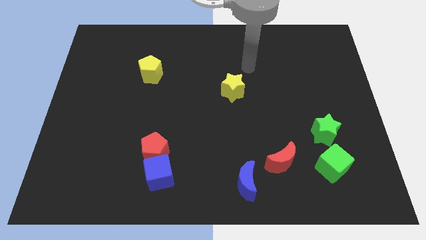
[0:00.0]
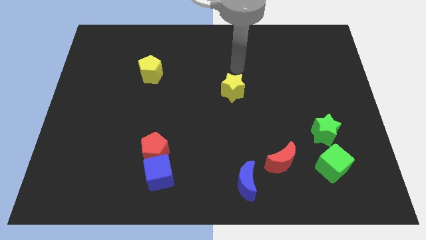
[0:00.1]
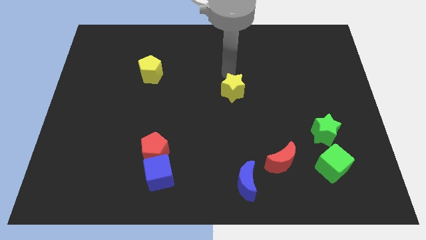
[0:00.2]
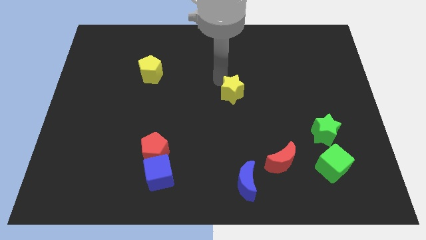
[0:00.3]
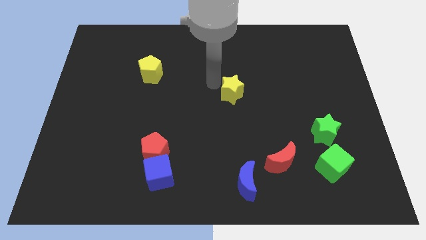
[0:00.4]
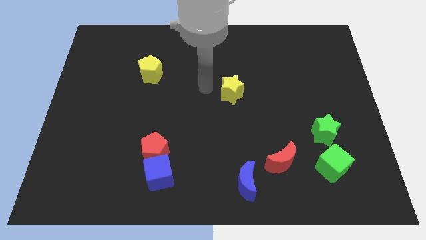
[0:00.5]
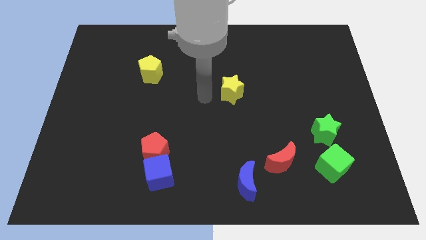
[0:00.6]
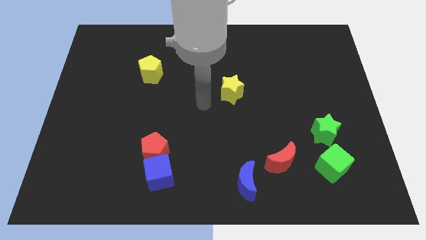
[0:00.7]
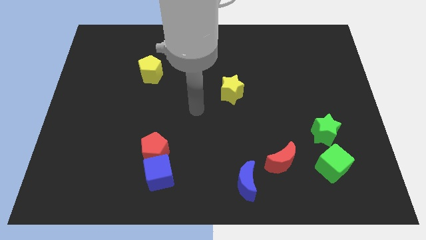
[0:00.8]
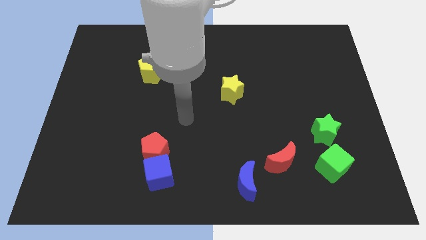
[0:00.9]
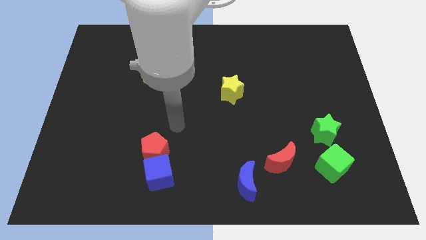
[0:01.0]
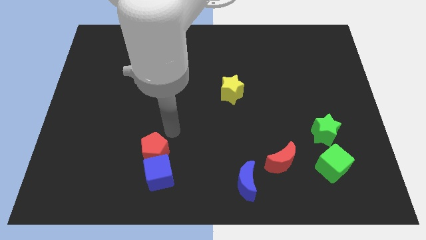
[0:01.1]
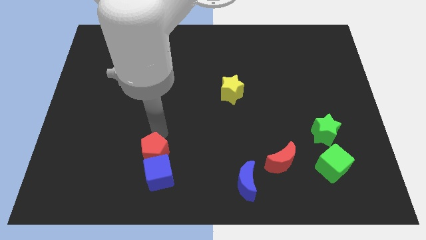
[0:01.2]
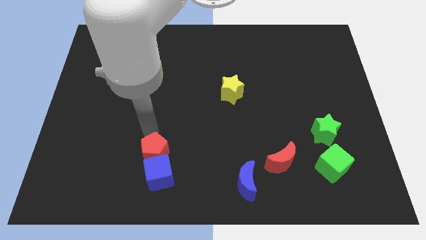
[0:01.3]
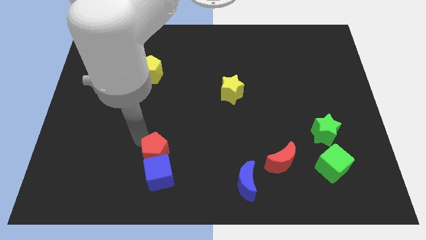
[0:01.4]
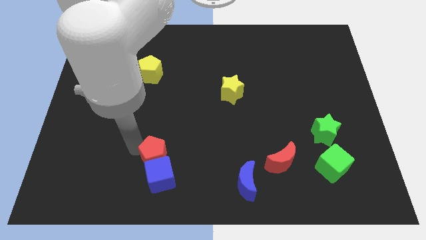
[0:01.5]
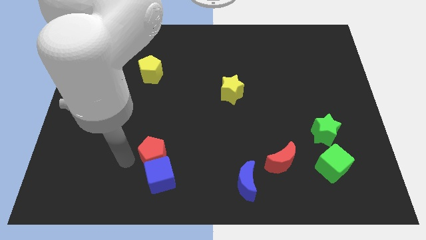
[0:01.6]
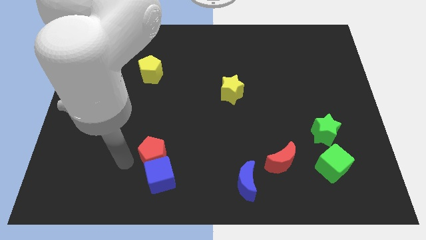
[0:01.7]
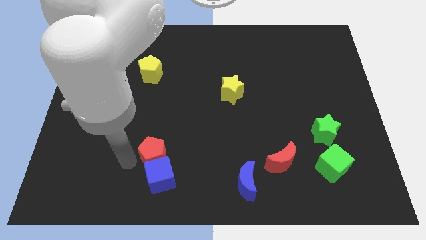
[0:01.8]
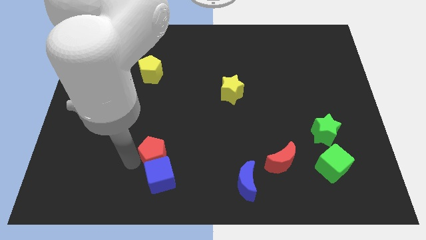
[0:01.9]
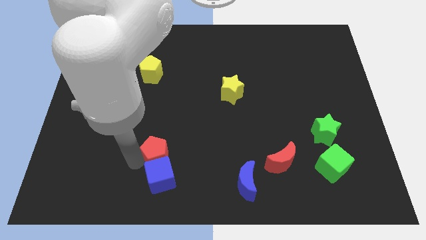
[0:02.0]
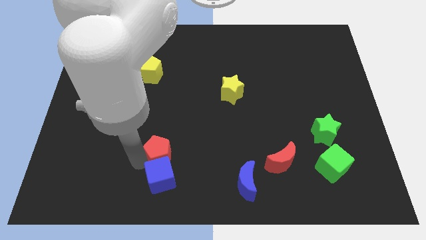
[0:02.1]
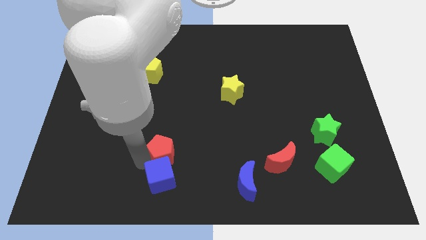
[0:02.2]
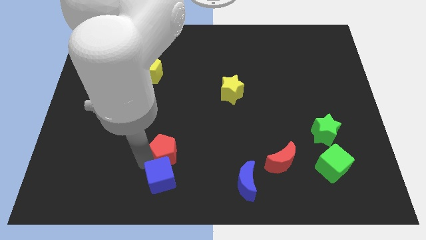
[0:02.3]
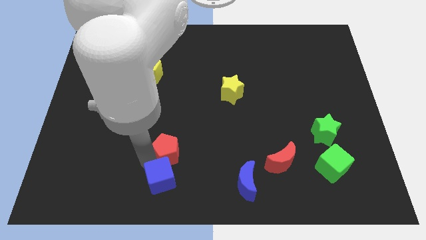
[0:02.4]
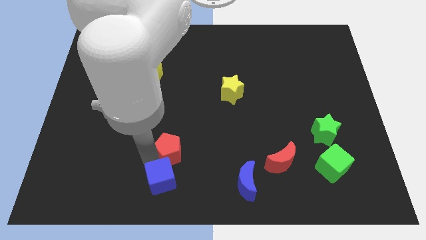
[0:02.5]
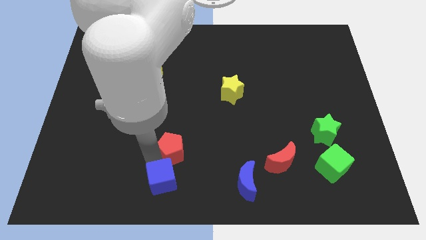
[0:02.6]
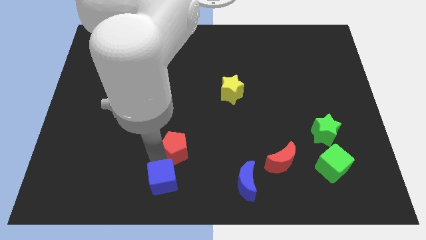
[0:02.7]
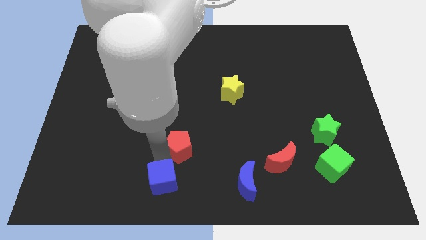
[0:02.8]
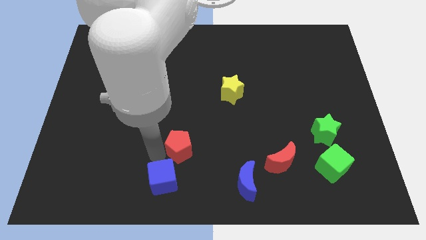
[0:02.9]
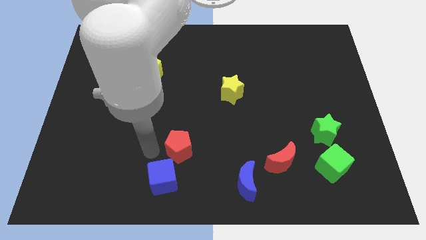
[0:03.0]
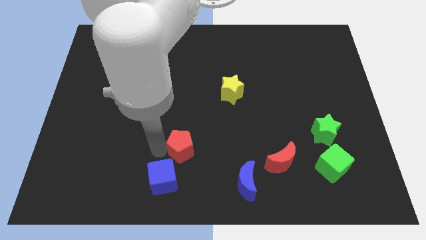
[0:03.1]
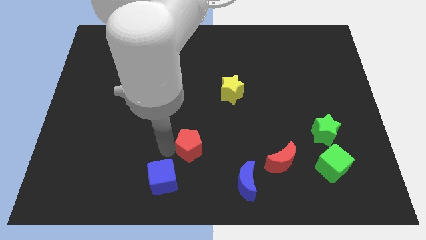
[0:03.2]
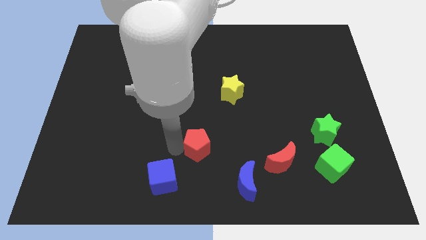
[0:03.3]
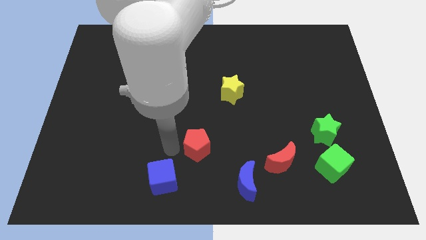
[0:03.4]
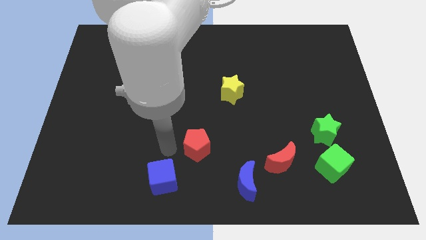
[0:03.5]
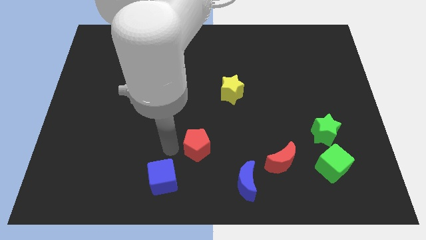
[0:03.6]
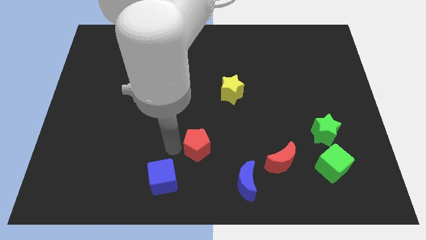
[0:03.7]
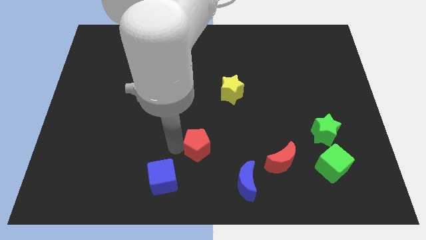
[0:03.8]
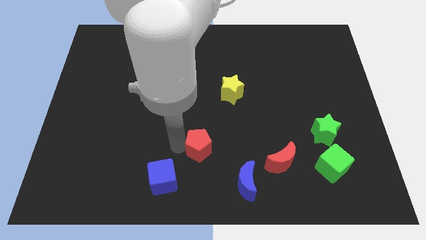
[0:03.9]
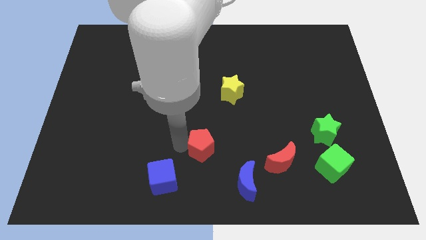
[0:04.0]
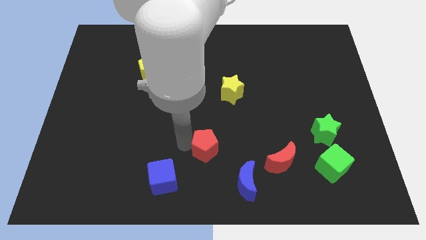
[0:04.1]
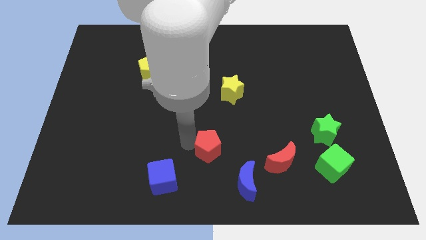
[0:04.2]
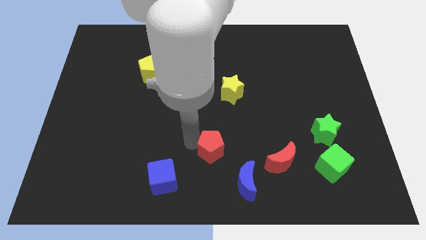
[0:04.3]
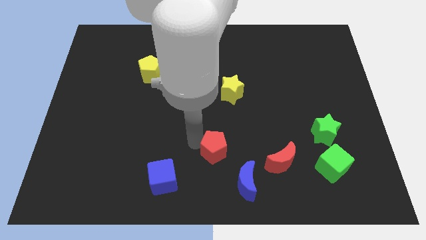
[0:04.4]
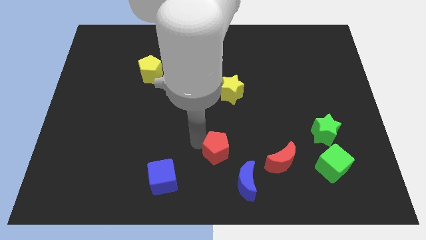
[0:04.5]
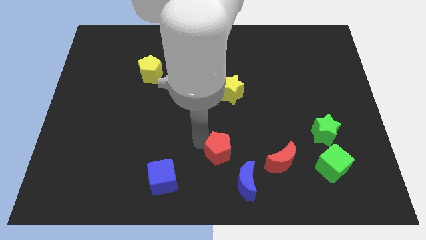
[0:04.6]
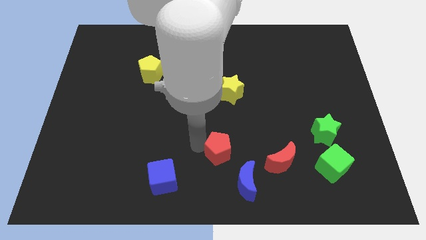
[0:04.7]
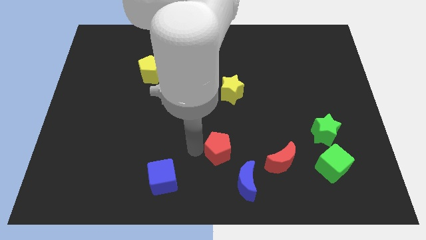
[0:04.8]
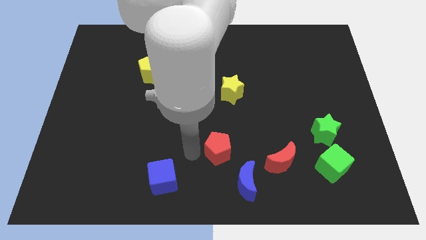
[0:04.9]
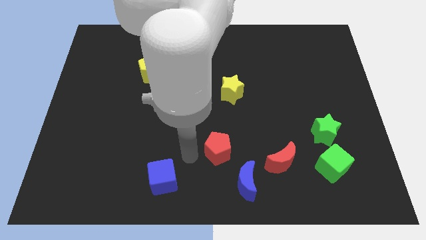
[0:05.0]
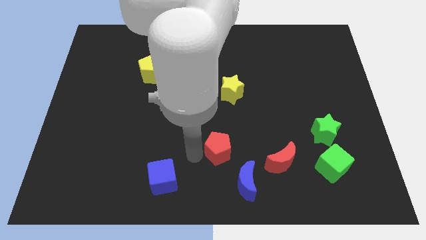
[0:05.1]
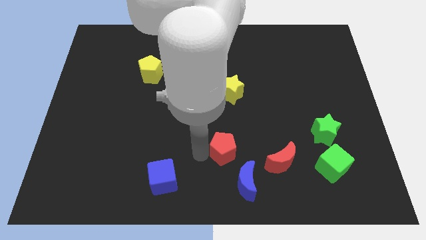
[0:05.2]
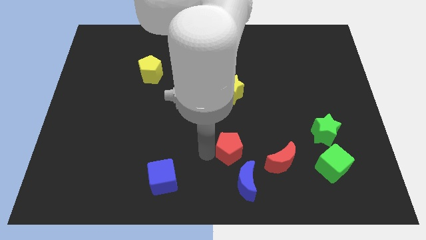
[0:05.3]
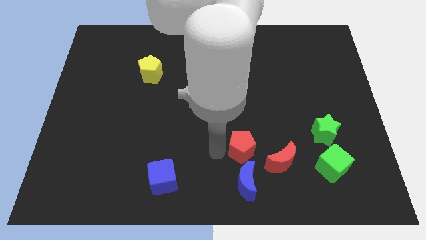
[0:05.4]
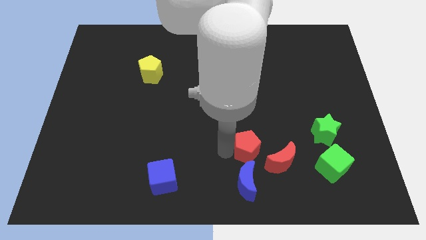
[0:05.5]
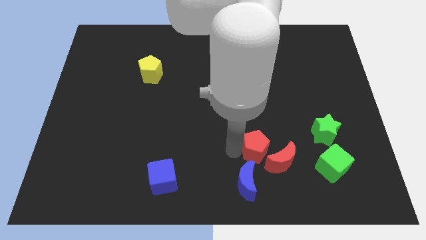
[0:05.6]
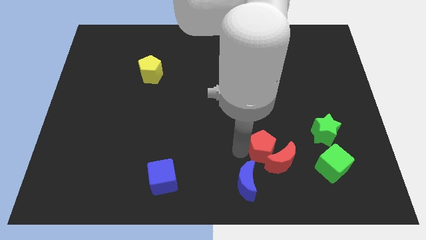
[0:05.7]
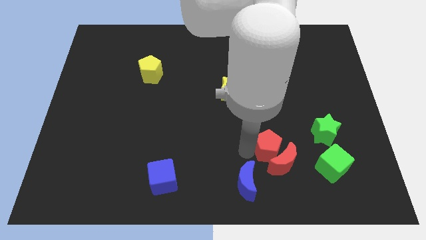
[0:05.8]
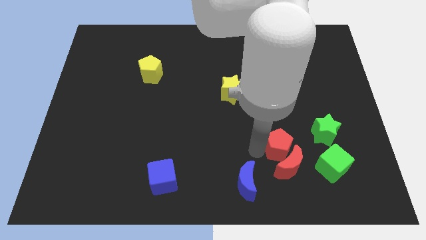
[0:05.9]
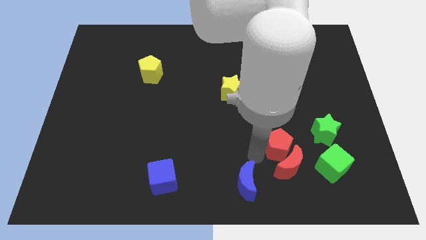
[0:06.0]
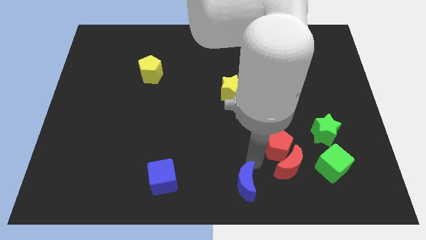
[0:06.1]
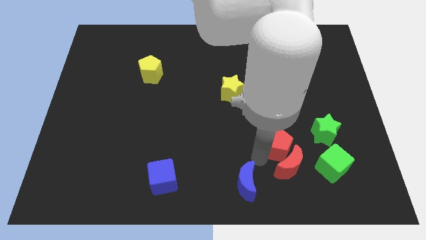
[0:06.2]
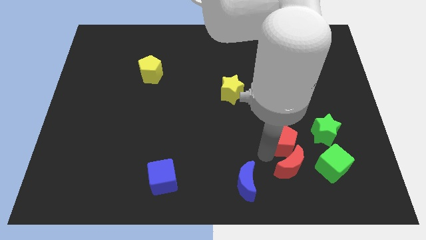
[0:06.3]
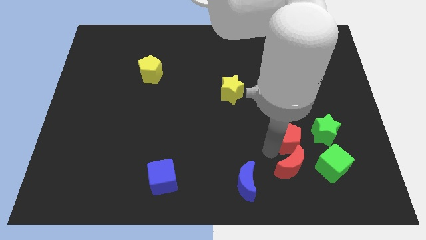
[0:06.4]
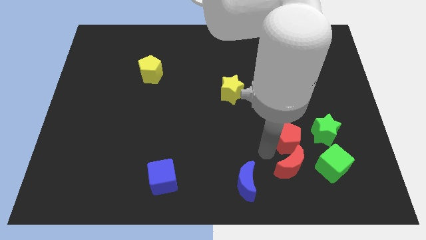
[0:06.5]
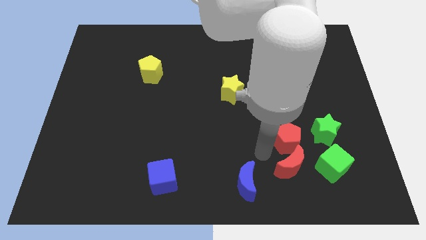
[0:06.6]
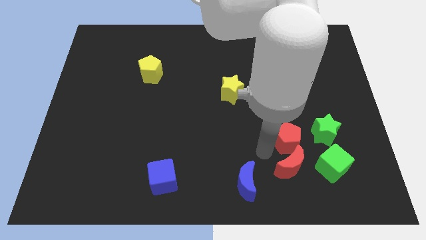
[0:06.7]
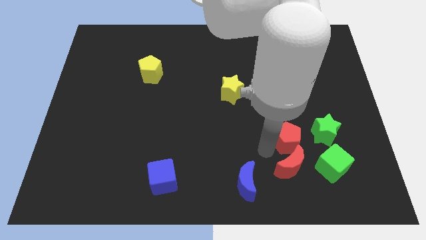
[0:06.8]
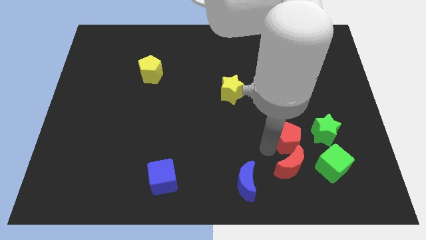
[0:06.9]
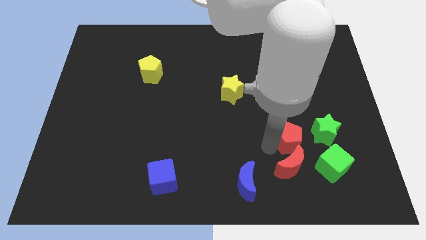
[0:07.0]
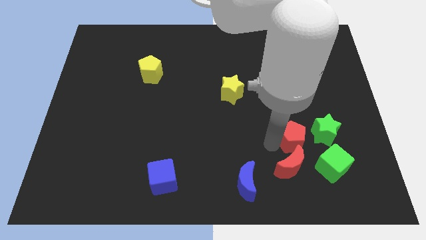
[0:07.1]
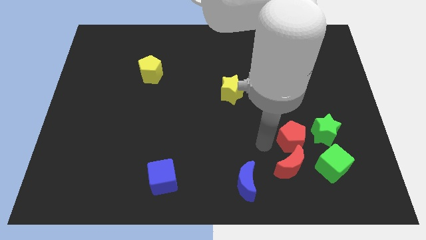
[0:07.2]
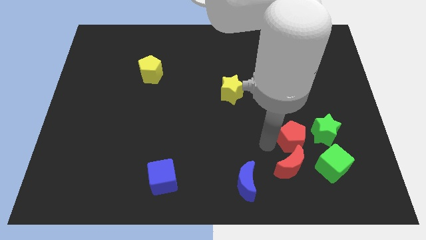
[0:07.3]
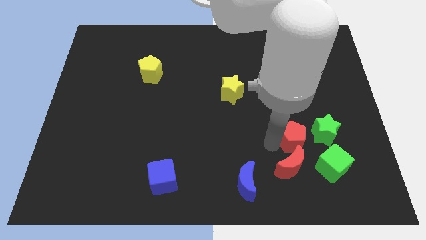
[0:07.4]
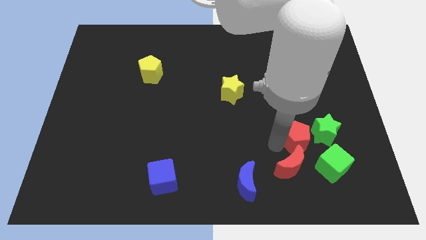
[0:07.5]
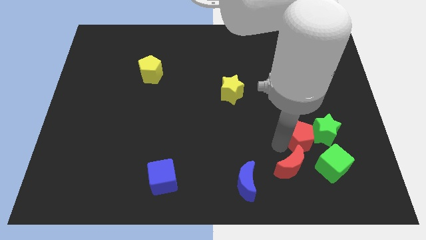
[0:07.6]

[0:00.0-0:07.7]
push the red pentagon close to the green star
